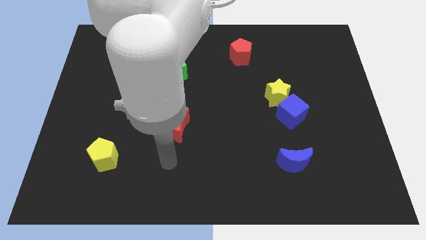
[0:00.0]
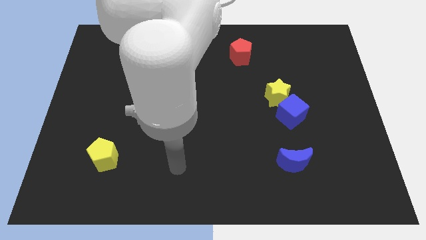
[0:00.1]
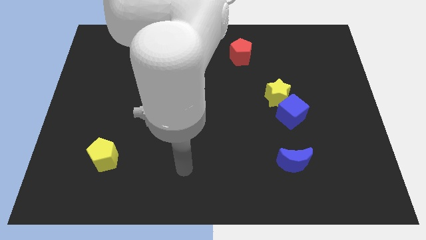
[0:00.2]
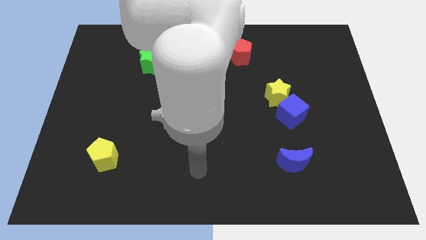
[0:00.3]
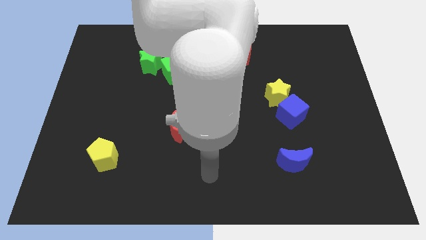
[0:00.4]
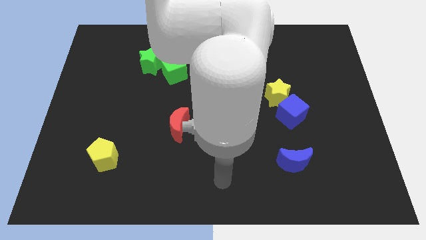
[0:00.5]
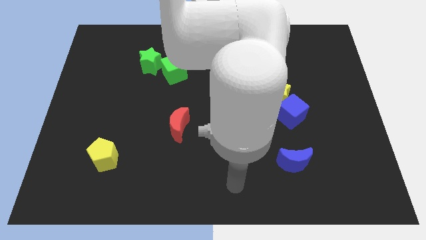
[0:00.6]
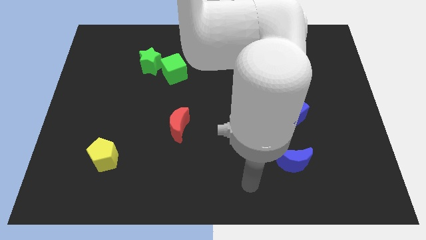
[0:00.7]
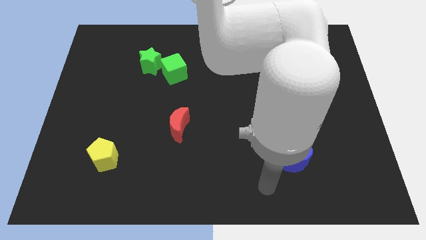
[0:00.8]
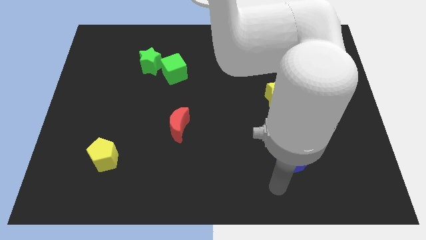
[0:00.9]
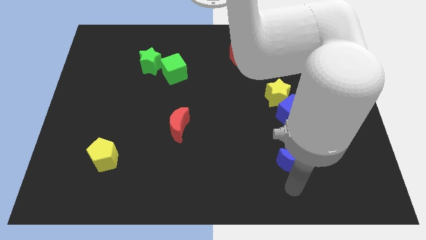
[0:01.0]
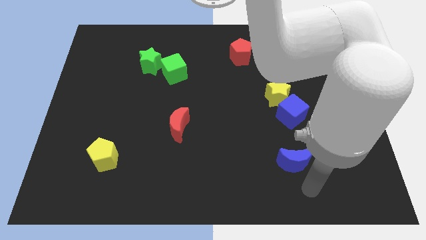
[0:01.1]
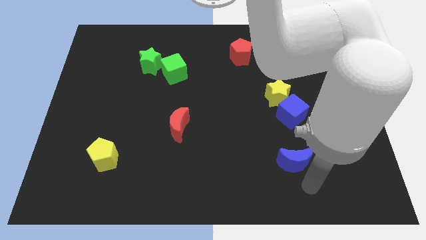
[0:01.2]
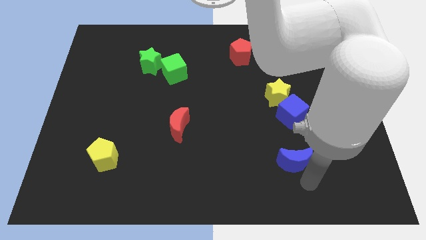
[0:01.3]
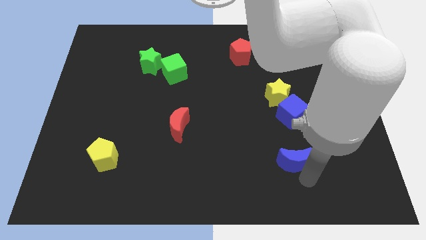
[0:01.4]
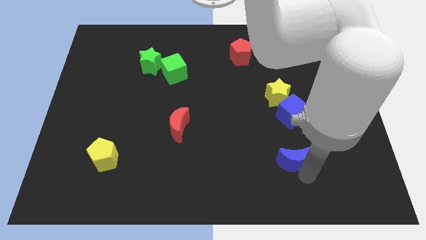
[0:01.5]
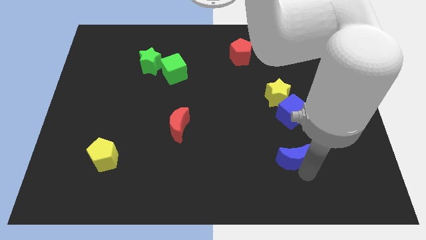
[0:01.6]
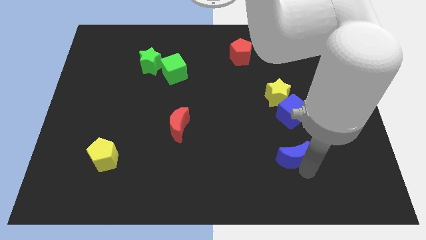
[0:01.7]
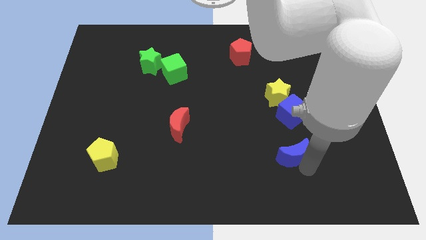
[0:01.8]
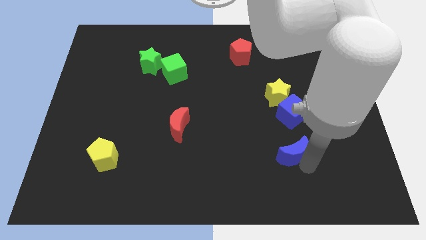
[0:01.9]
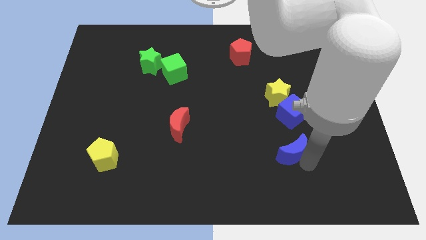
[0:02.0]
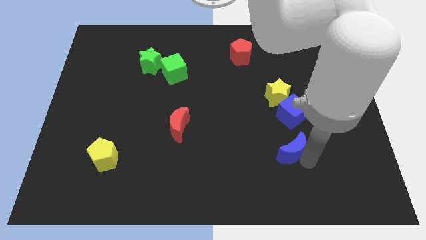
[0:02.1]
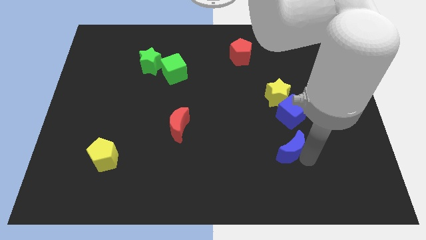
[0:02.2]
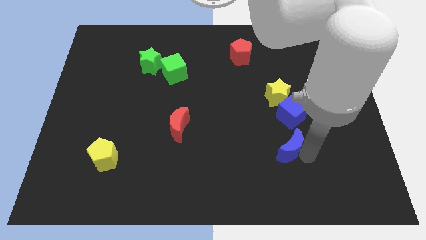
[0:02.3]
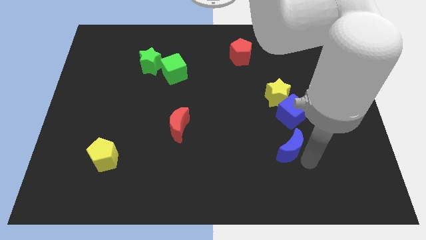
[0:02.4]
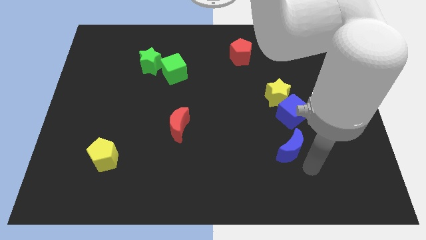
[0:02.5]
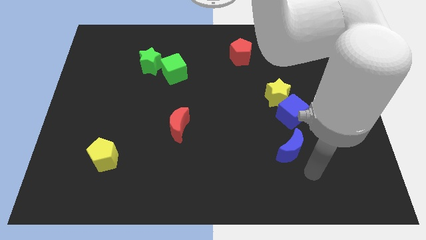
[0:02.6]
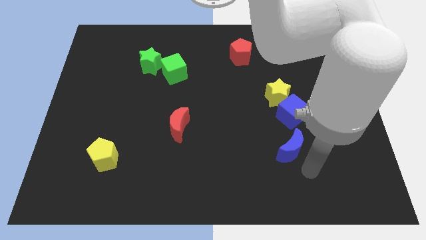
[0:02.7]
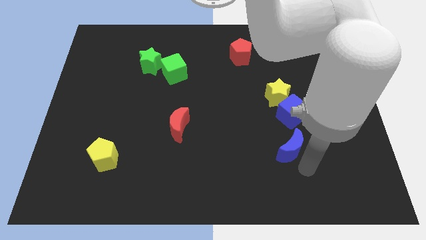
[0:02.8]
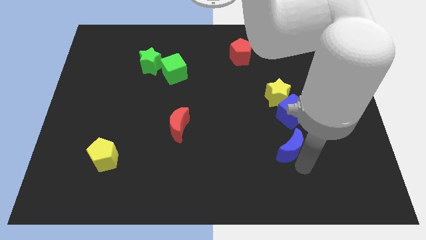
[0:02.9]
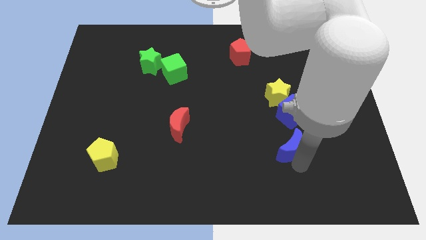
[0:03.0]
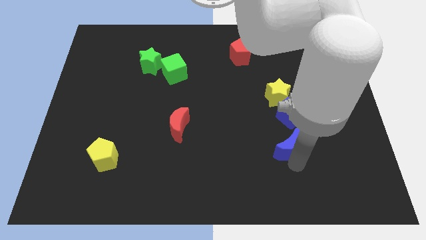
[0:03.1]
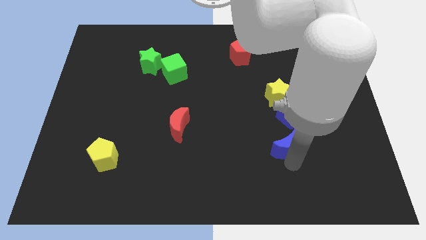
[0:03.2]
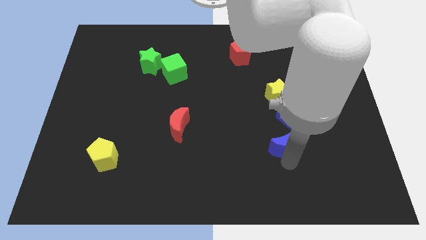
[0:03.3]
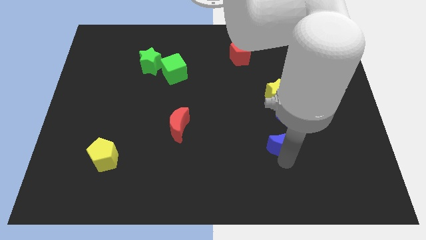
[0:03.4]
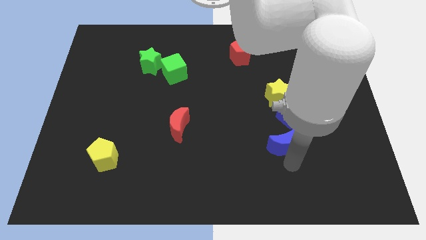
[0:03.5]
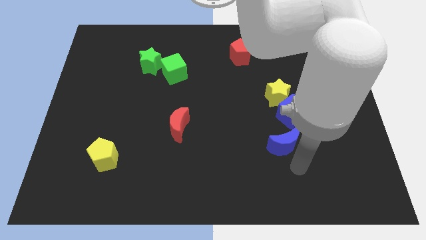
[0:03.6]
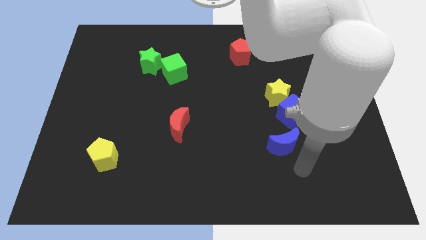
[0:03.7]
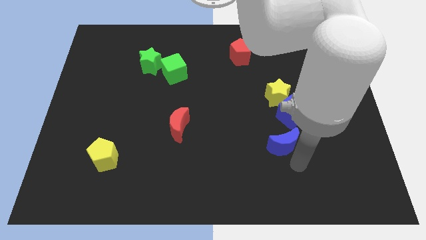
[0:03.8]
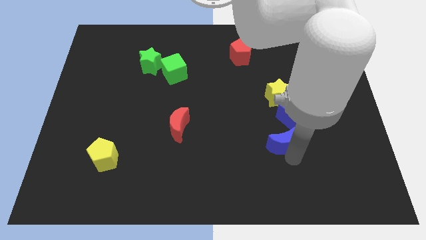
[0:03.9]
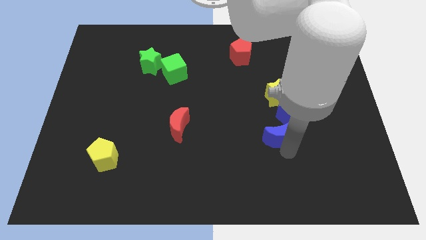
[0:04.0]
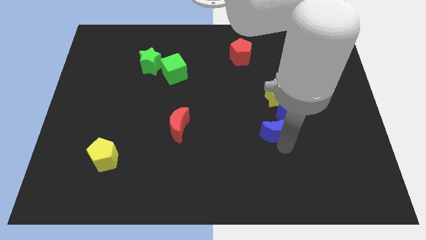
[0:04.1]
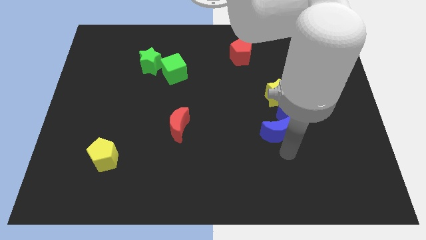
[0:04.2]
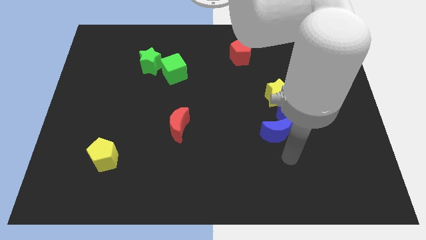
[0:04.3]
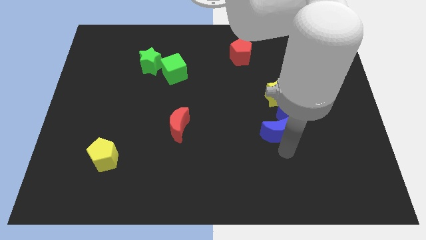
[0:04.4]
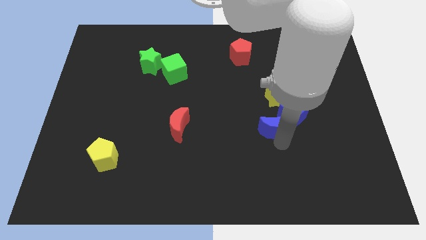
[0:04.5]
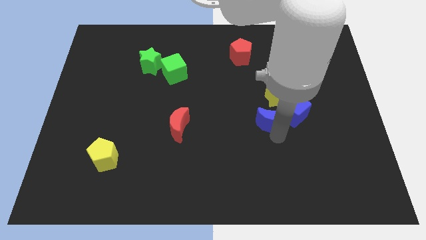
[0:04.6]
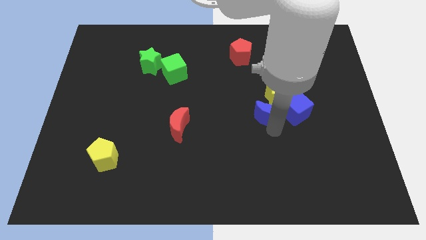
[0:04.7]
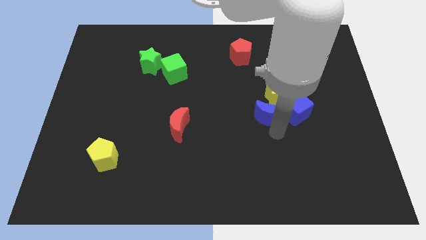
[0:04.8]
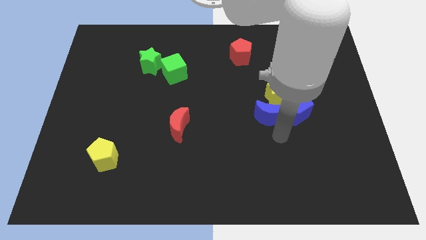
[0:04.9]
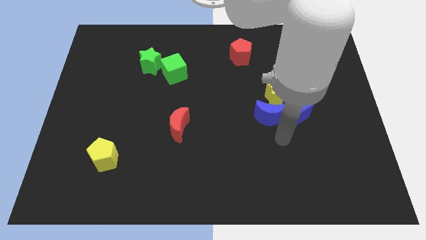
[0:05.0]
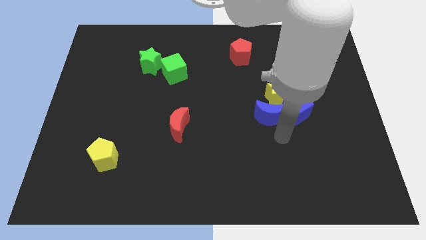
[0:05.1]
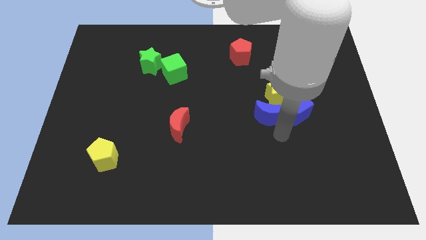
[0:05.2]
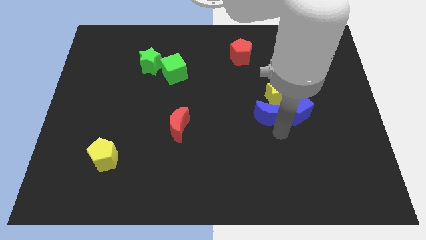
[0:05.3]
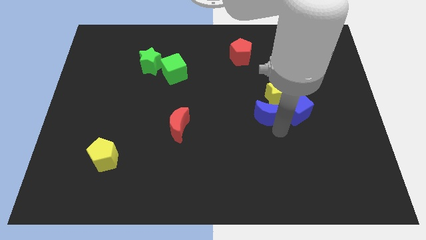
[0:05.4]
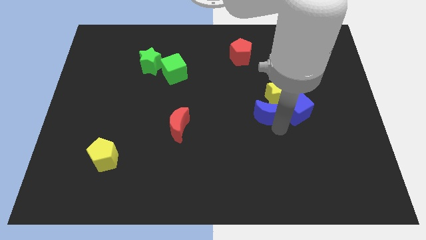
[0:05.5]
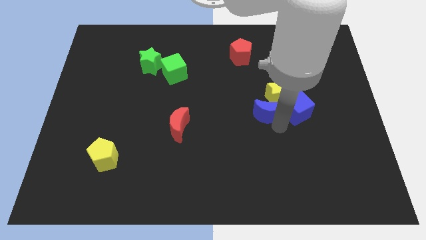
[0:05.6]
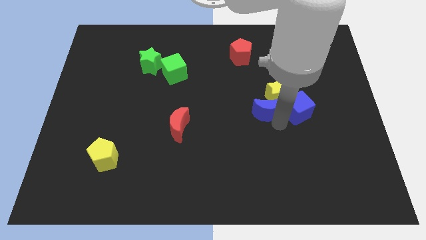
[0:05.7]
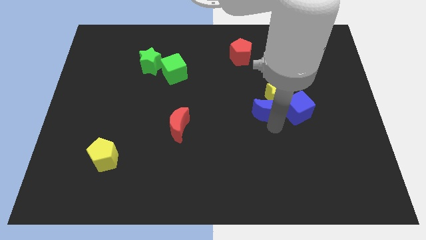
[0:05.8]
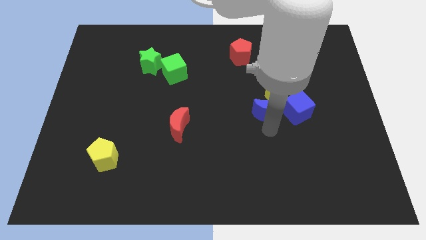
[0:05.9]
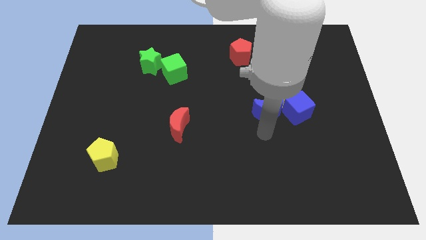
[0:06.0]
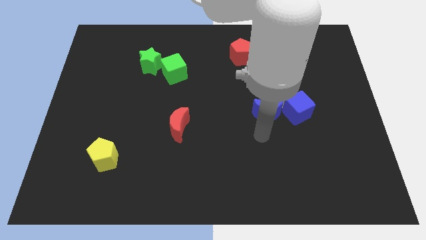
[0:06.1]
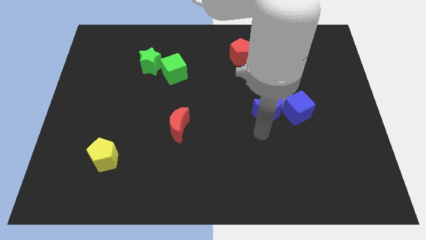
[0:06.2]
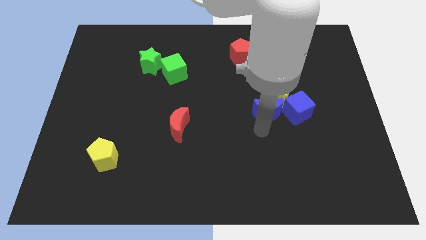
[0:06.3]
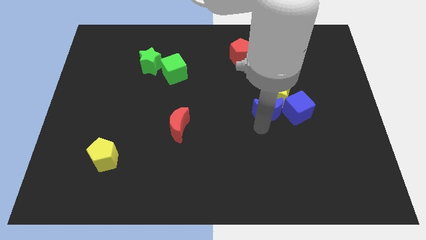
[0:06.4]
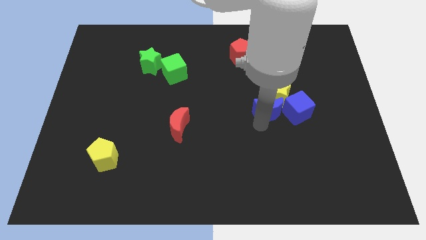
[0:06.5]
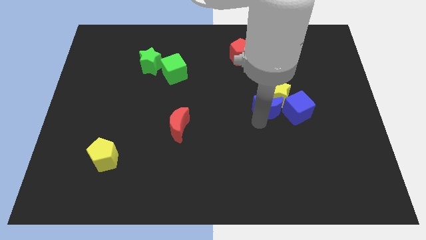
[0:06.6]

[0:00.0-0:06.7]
move the blue moon to the top left side of the blue cube
